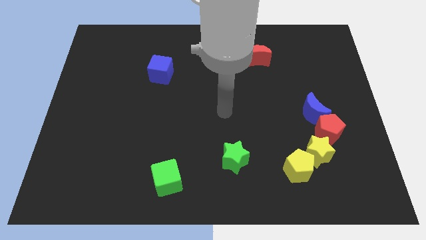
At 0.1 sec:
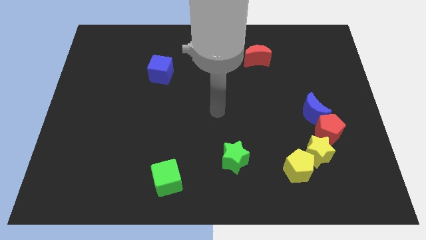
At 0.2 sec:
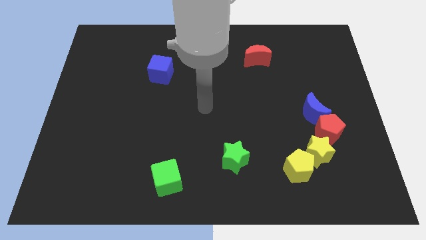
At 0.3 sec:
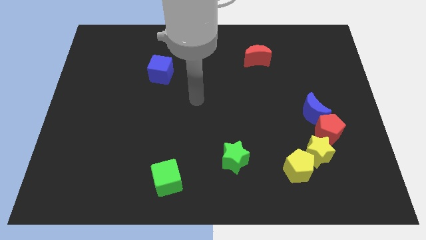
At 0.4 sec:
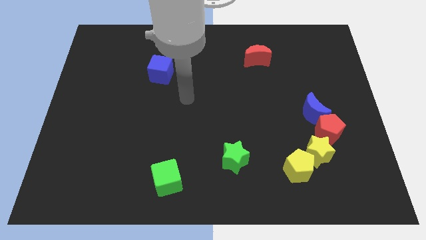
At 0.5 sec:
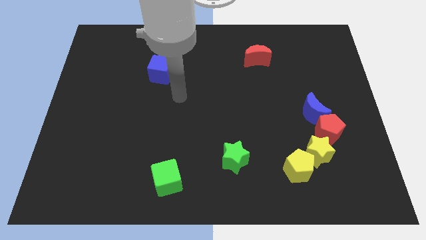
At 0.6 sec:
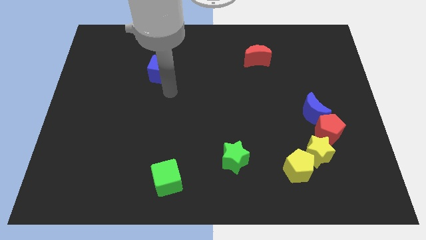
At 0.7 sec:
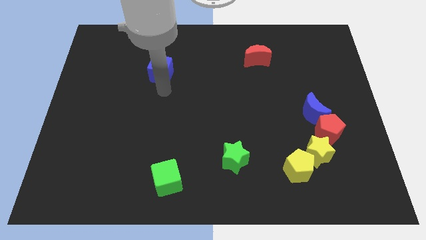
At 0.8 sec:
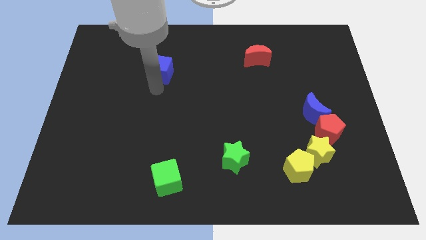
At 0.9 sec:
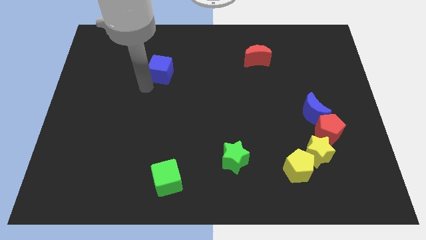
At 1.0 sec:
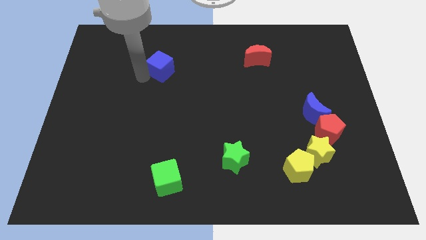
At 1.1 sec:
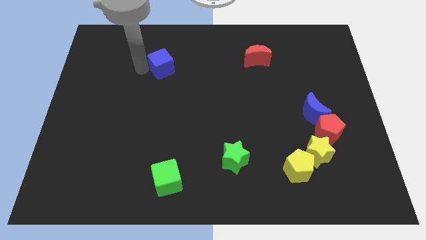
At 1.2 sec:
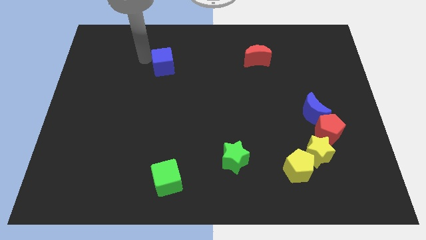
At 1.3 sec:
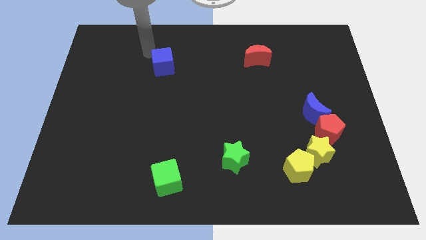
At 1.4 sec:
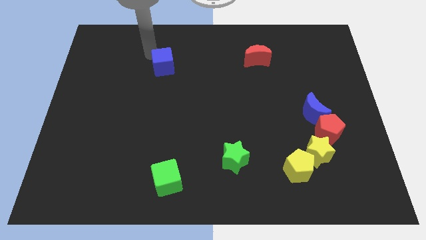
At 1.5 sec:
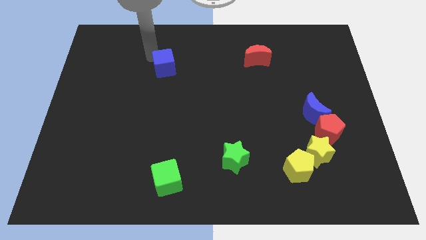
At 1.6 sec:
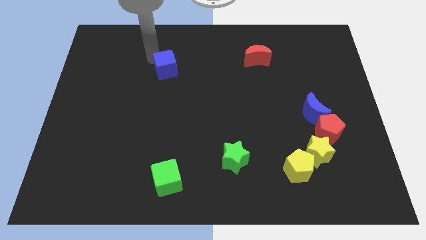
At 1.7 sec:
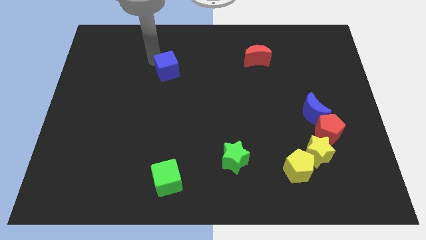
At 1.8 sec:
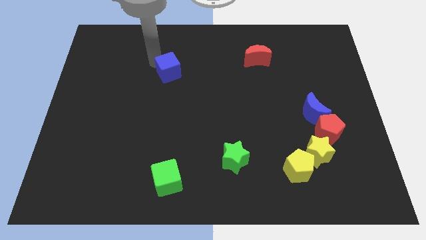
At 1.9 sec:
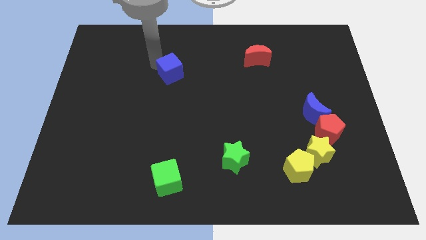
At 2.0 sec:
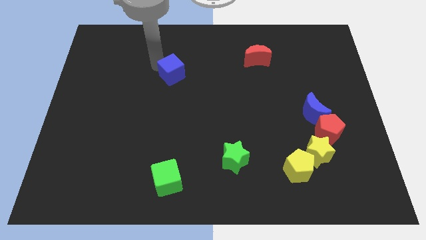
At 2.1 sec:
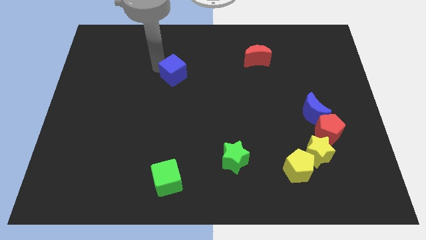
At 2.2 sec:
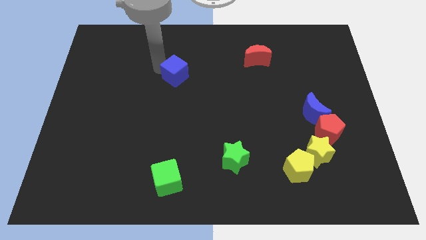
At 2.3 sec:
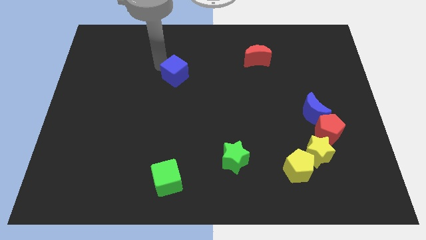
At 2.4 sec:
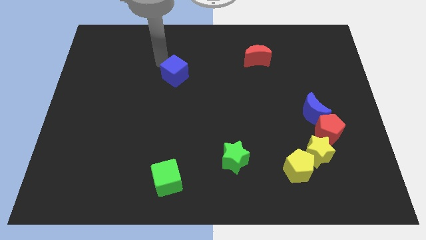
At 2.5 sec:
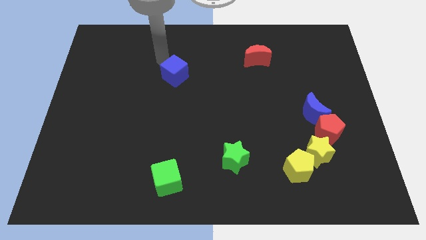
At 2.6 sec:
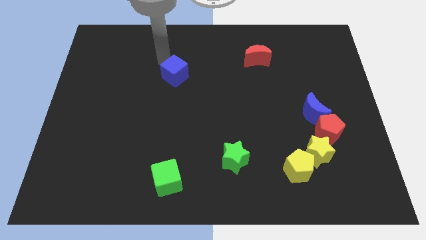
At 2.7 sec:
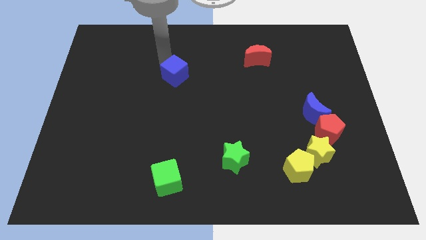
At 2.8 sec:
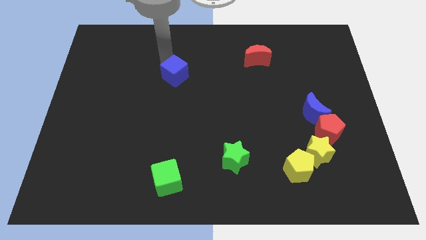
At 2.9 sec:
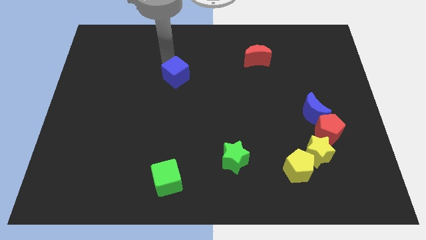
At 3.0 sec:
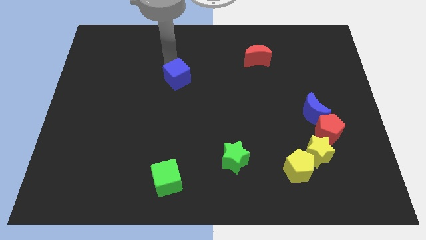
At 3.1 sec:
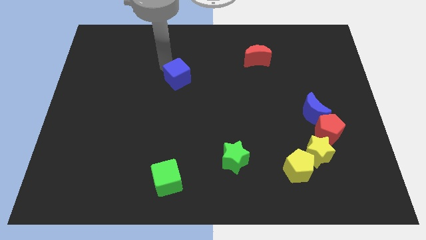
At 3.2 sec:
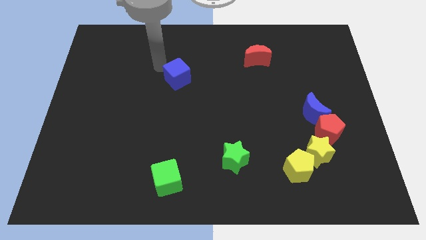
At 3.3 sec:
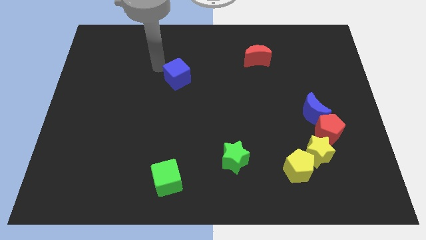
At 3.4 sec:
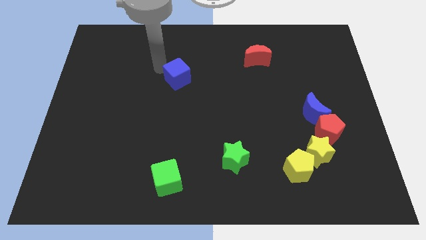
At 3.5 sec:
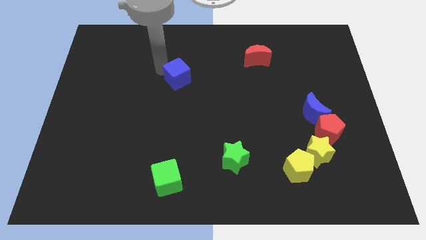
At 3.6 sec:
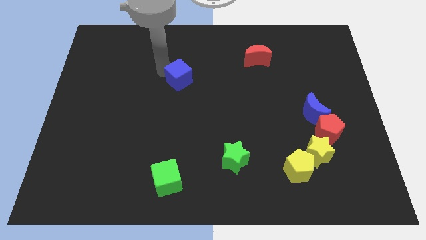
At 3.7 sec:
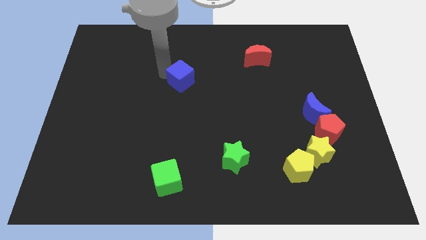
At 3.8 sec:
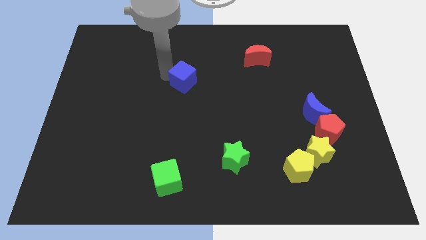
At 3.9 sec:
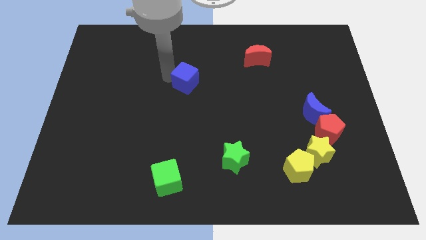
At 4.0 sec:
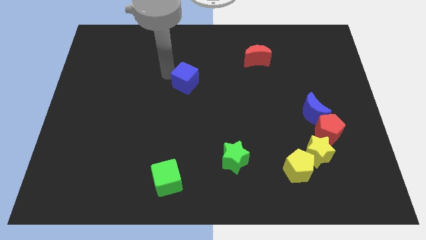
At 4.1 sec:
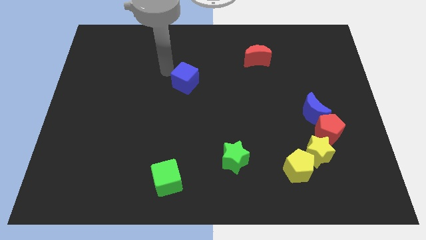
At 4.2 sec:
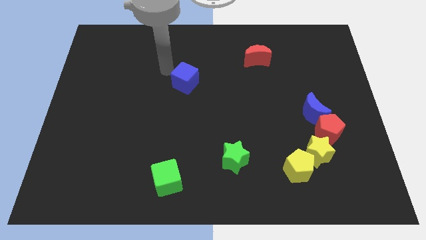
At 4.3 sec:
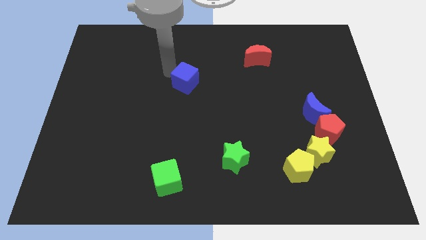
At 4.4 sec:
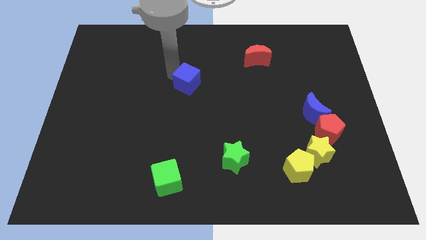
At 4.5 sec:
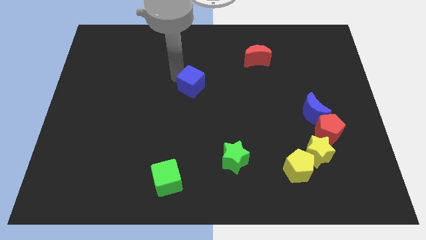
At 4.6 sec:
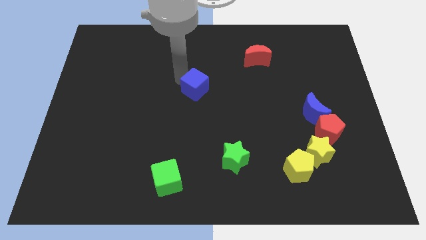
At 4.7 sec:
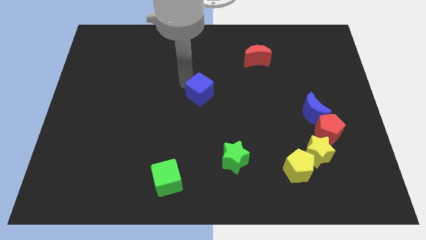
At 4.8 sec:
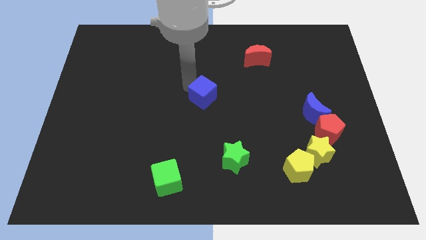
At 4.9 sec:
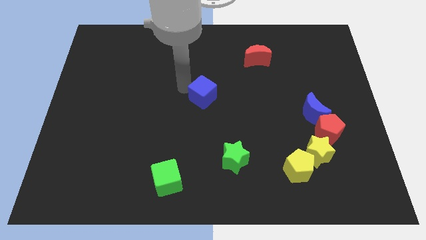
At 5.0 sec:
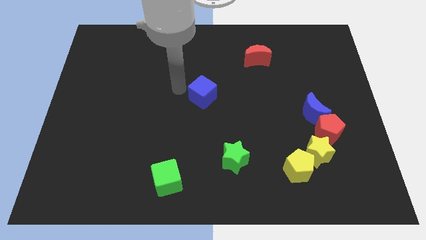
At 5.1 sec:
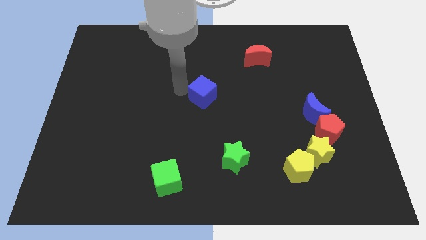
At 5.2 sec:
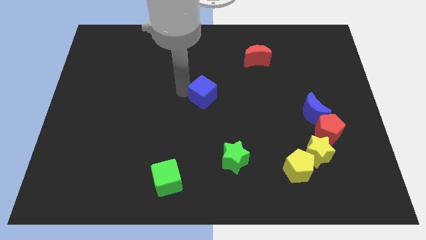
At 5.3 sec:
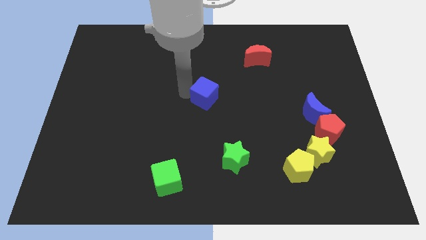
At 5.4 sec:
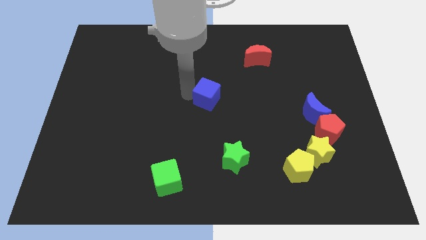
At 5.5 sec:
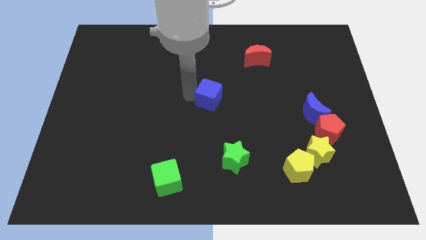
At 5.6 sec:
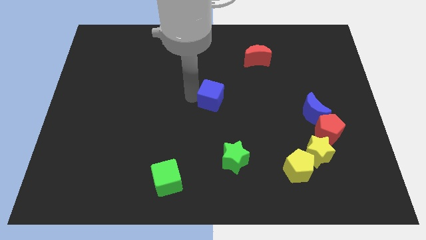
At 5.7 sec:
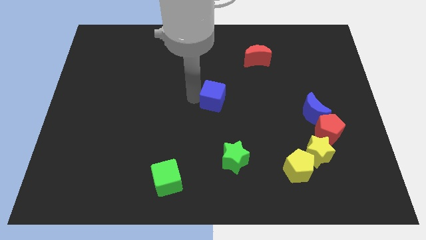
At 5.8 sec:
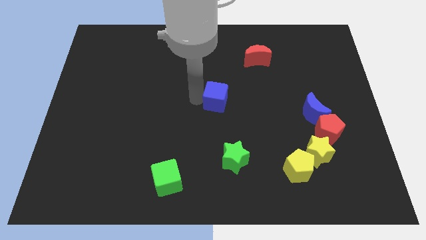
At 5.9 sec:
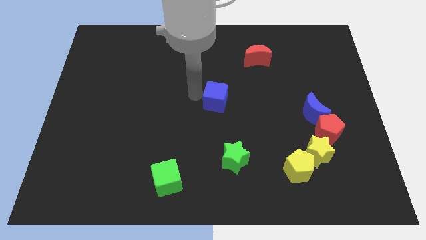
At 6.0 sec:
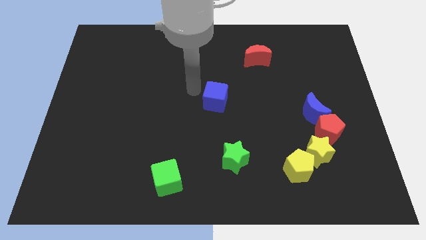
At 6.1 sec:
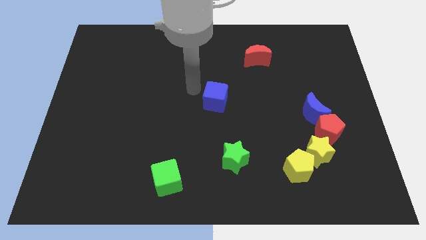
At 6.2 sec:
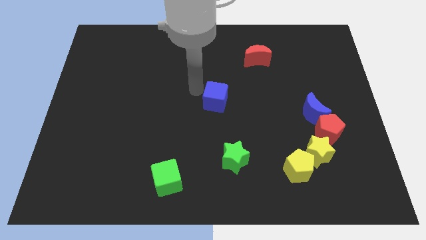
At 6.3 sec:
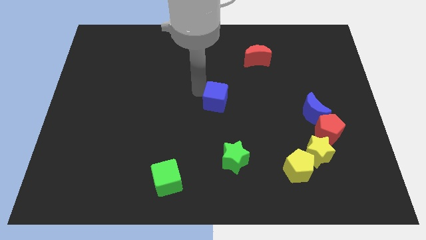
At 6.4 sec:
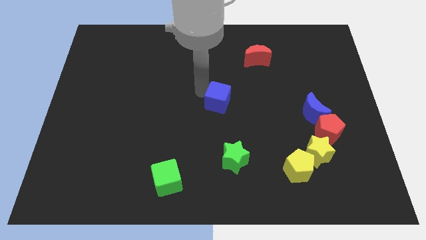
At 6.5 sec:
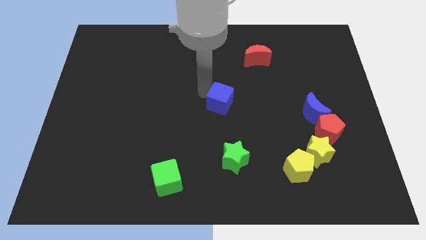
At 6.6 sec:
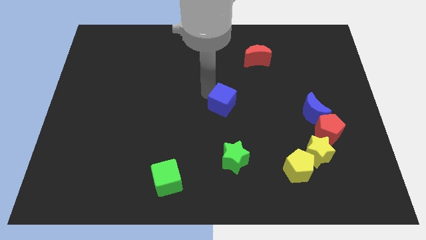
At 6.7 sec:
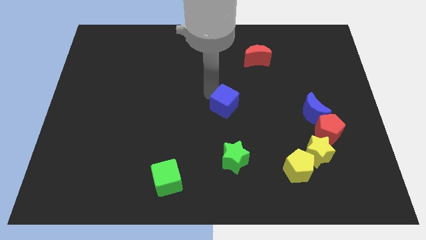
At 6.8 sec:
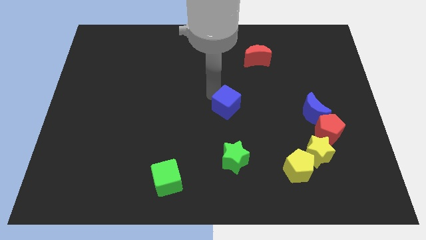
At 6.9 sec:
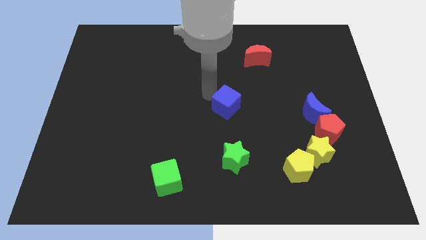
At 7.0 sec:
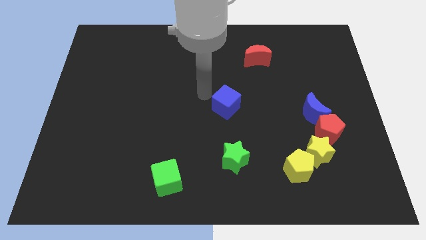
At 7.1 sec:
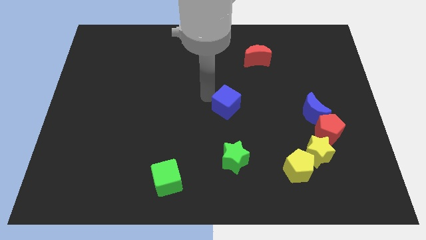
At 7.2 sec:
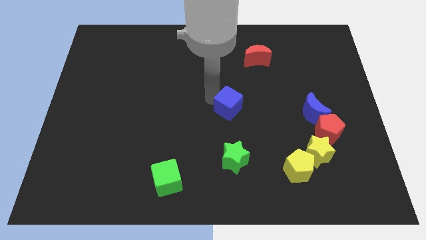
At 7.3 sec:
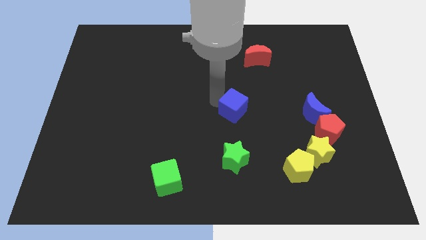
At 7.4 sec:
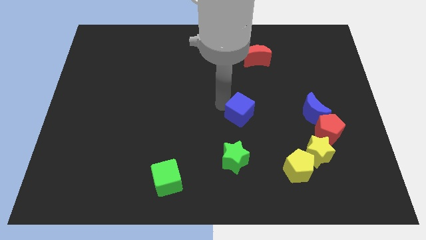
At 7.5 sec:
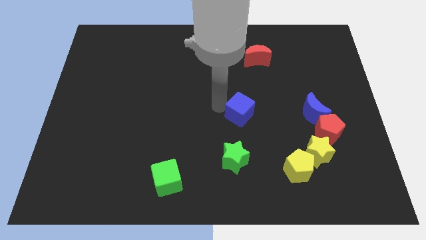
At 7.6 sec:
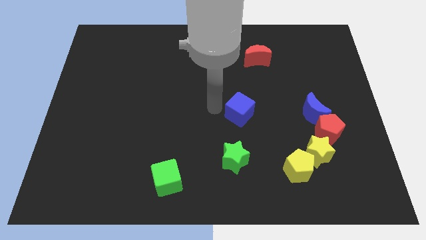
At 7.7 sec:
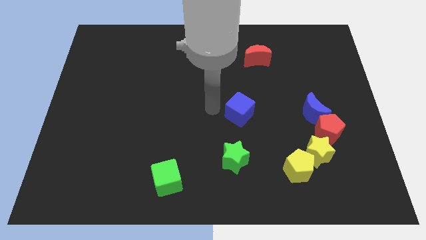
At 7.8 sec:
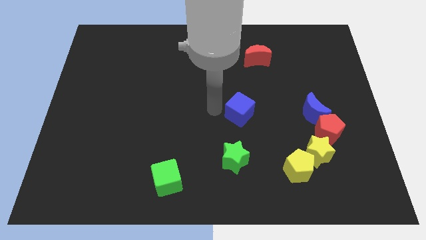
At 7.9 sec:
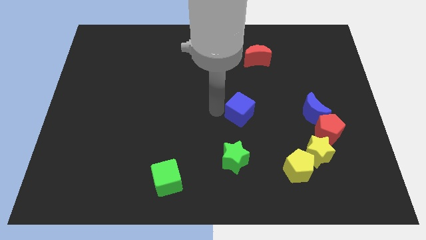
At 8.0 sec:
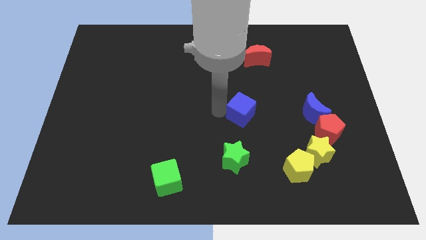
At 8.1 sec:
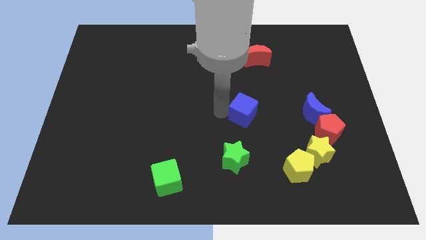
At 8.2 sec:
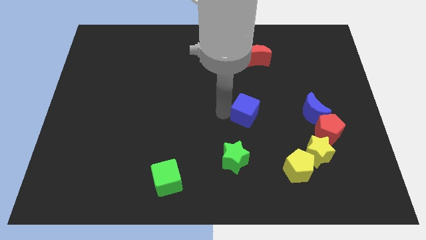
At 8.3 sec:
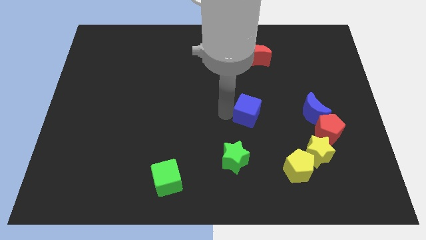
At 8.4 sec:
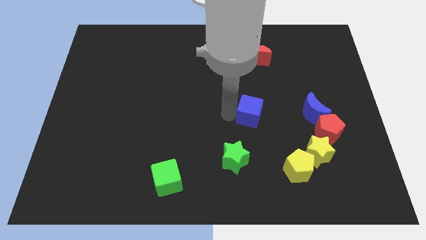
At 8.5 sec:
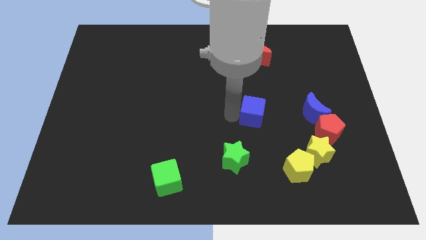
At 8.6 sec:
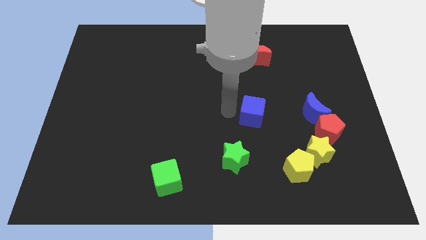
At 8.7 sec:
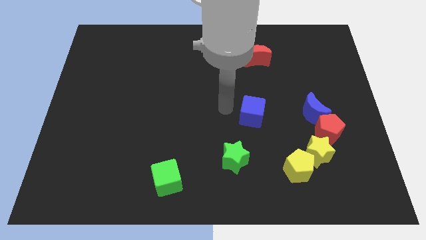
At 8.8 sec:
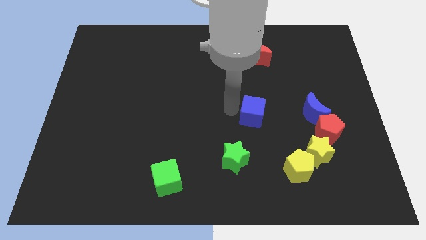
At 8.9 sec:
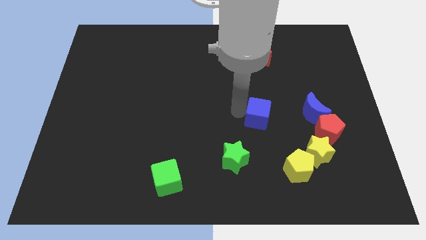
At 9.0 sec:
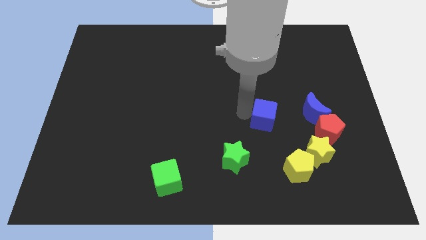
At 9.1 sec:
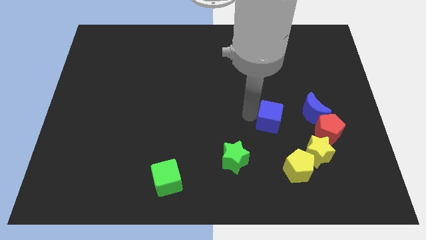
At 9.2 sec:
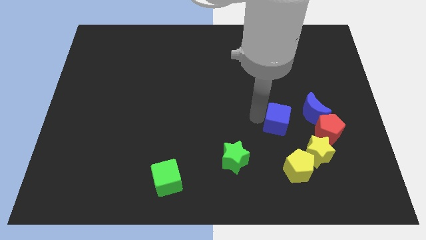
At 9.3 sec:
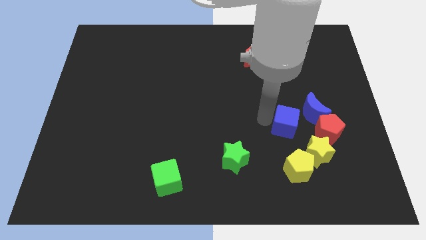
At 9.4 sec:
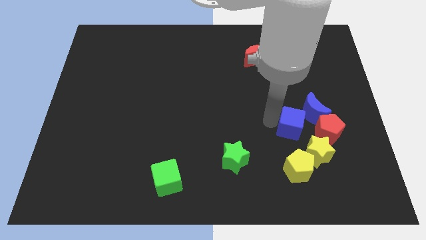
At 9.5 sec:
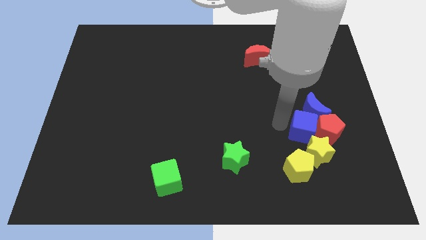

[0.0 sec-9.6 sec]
put the blue cube towards the red pentagon
